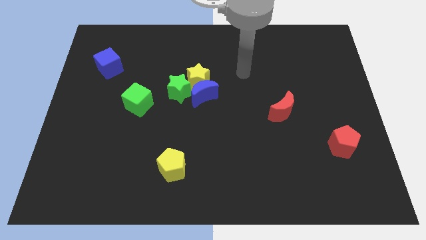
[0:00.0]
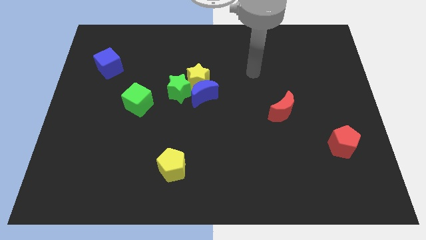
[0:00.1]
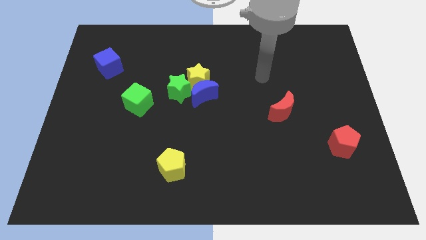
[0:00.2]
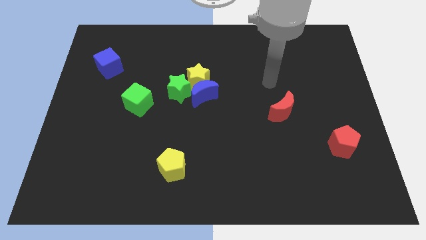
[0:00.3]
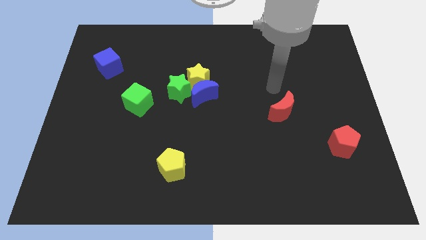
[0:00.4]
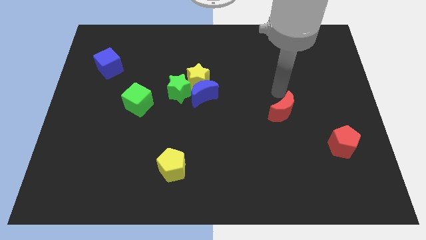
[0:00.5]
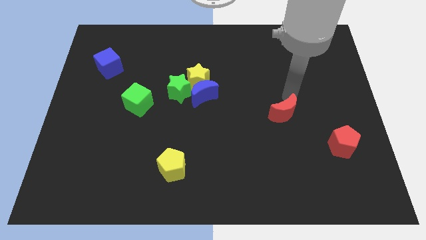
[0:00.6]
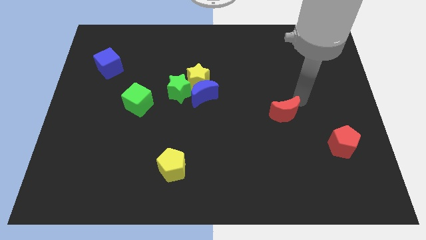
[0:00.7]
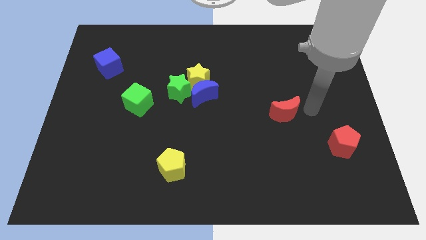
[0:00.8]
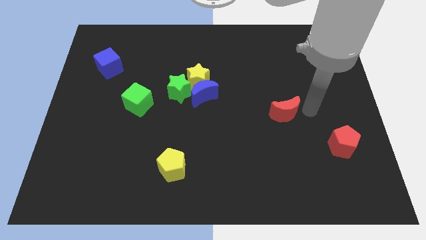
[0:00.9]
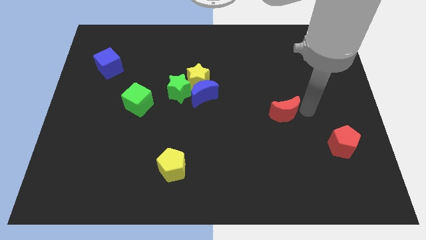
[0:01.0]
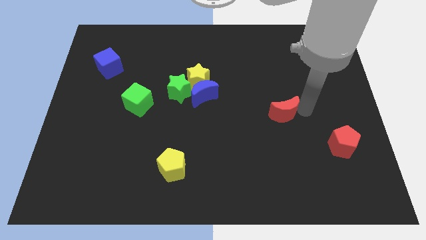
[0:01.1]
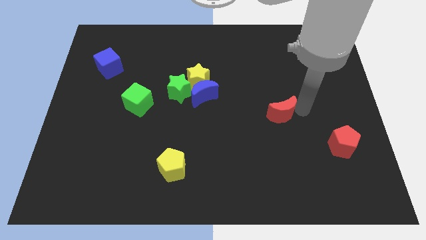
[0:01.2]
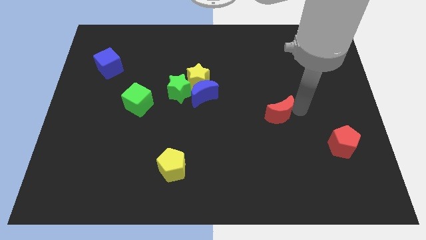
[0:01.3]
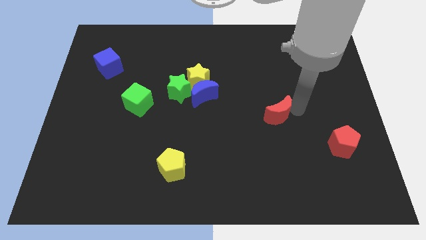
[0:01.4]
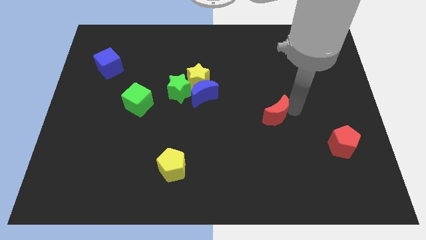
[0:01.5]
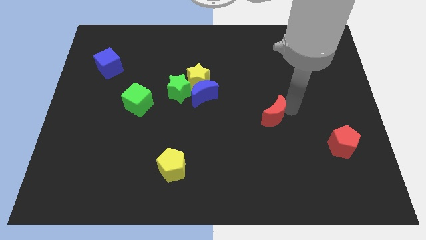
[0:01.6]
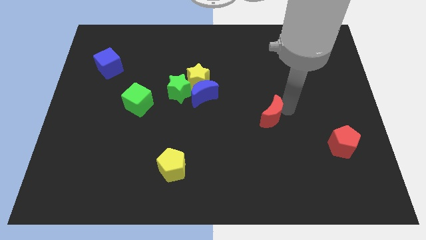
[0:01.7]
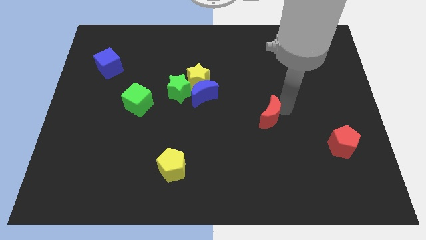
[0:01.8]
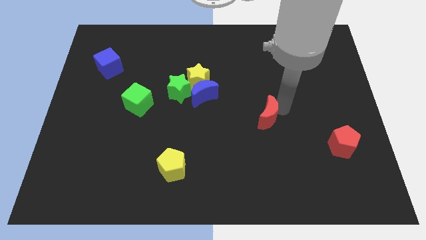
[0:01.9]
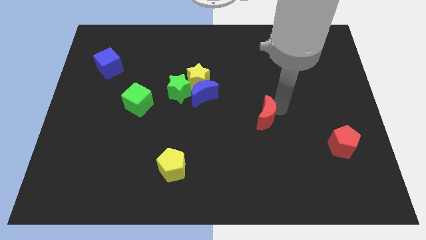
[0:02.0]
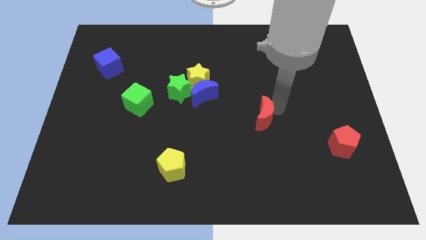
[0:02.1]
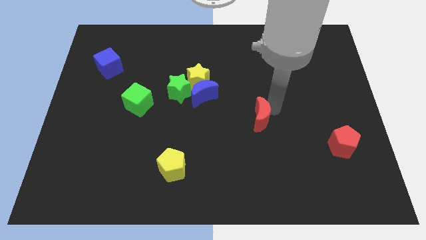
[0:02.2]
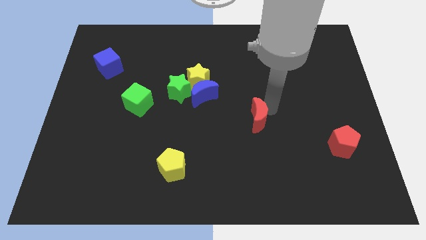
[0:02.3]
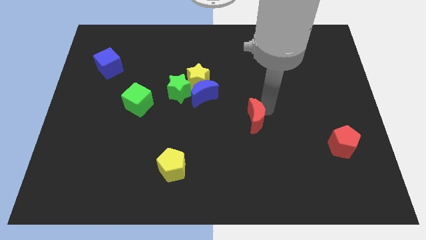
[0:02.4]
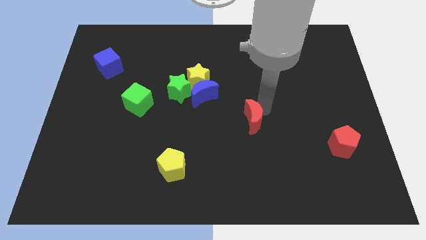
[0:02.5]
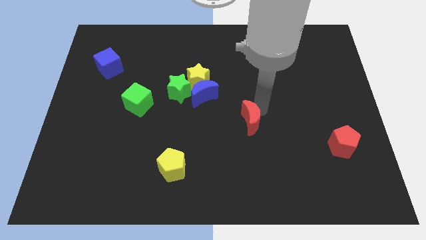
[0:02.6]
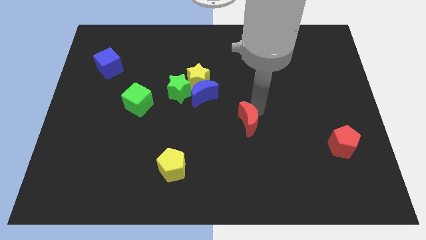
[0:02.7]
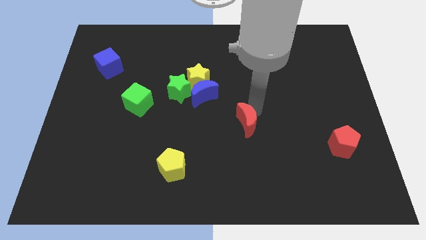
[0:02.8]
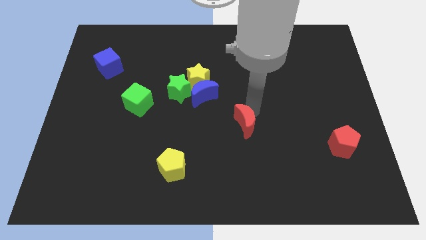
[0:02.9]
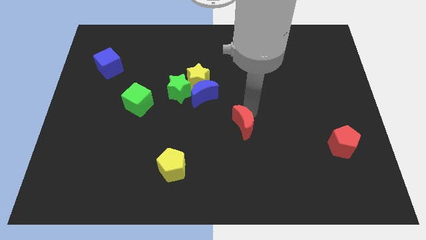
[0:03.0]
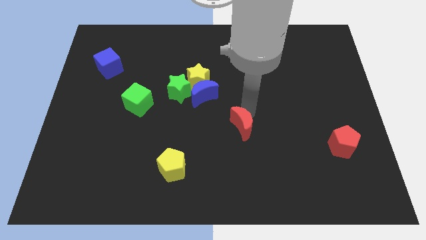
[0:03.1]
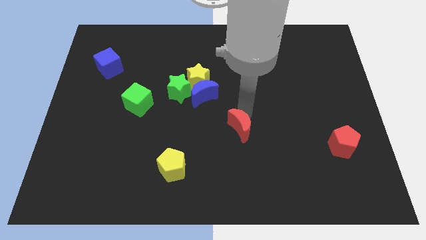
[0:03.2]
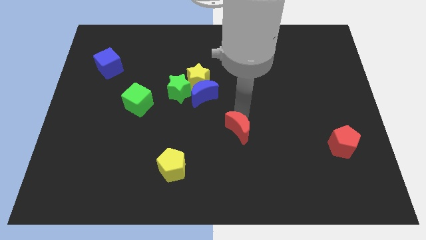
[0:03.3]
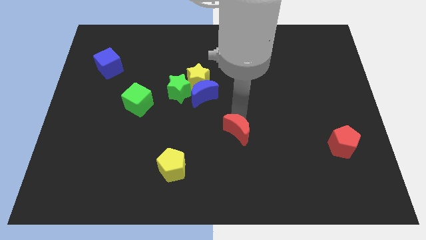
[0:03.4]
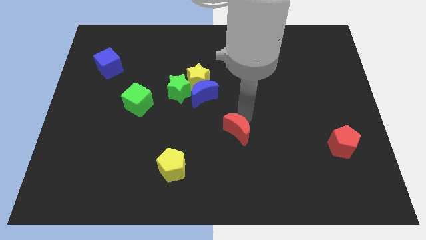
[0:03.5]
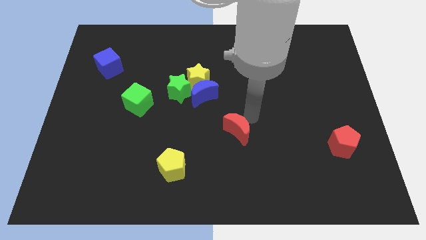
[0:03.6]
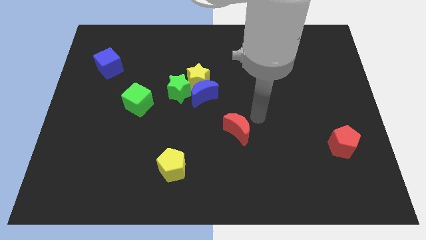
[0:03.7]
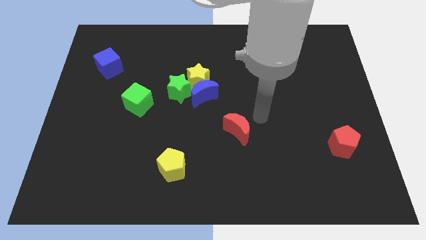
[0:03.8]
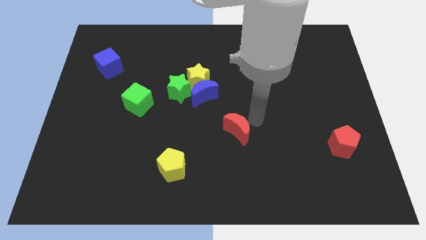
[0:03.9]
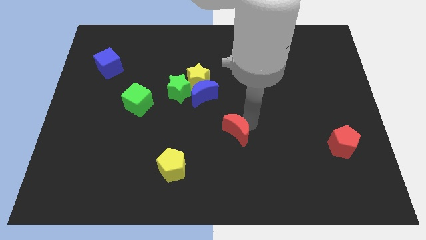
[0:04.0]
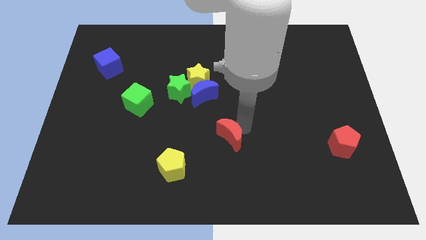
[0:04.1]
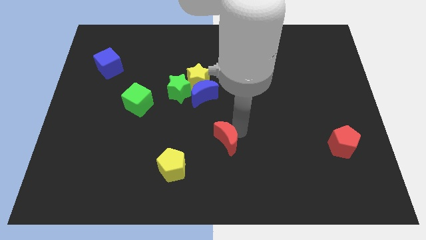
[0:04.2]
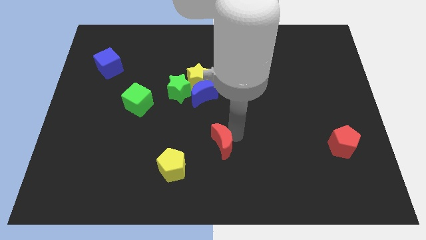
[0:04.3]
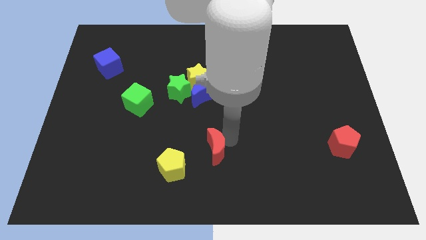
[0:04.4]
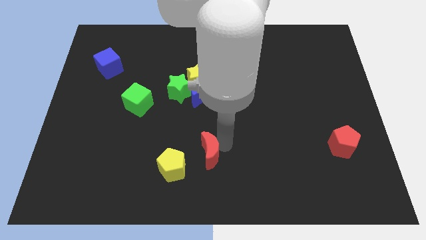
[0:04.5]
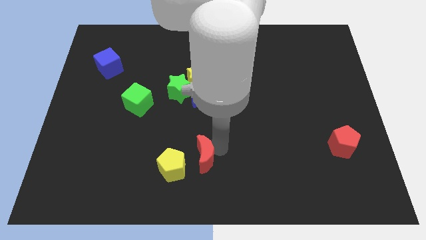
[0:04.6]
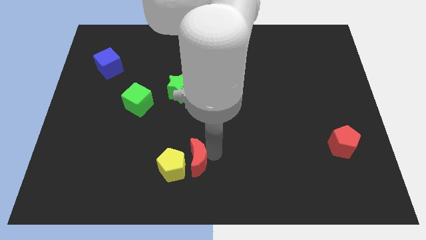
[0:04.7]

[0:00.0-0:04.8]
slide the red moon towards the yellow pentagon

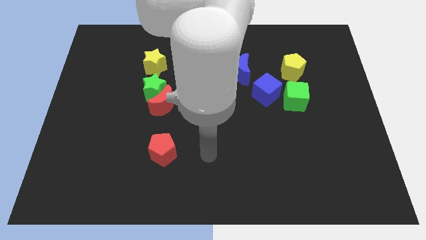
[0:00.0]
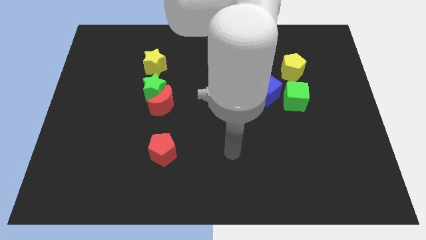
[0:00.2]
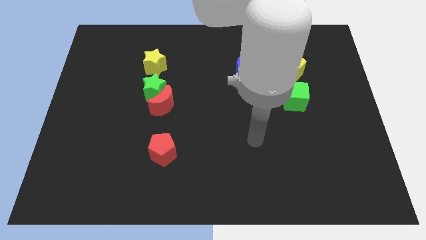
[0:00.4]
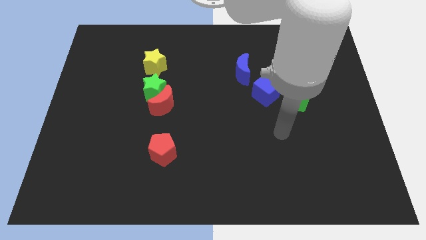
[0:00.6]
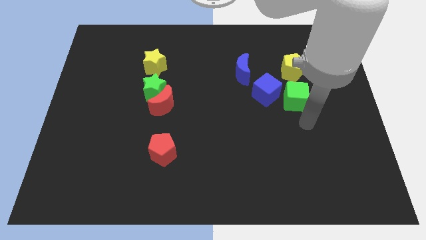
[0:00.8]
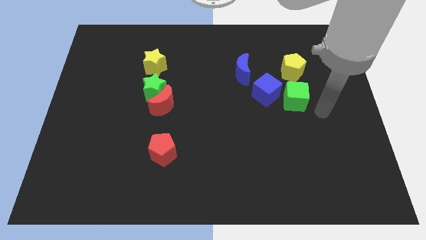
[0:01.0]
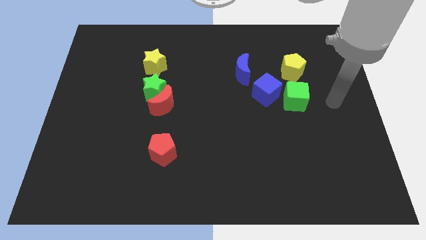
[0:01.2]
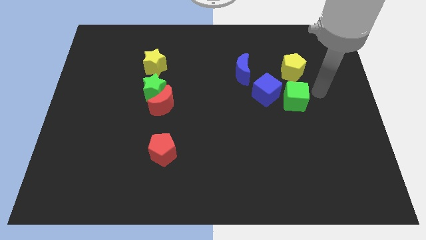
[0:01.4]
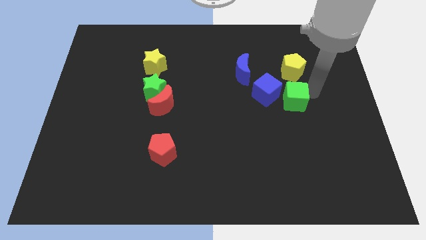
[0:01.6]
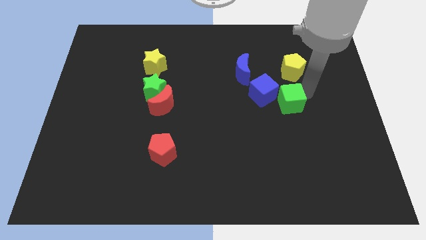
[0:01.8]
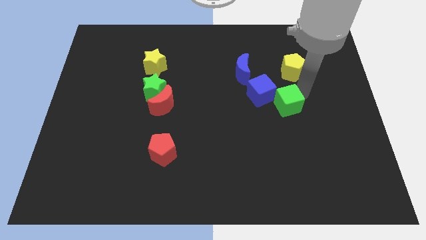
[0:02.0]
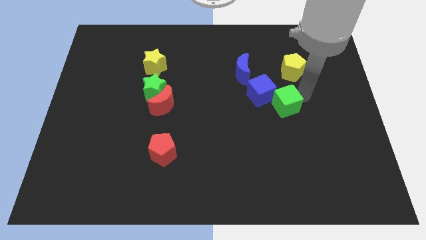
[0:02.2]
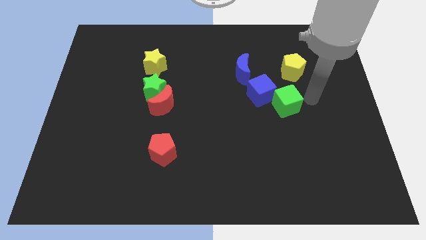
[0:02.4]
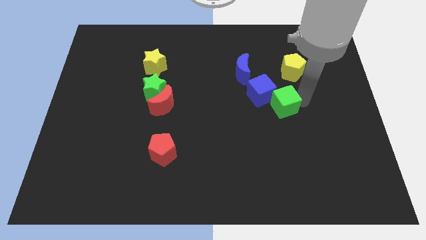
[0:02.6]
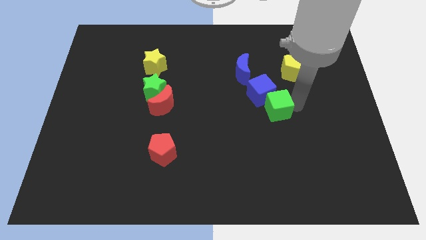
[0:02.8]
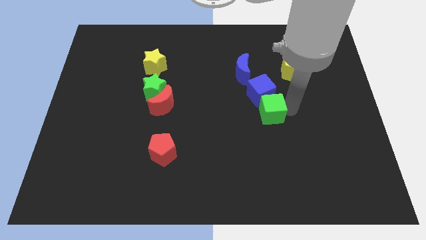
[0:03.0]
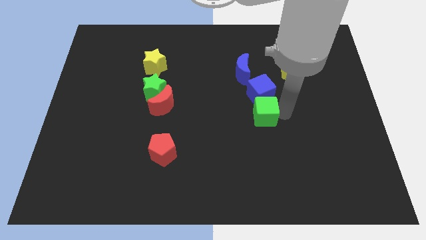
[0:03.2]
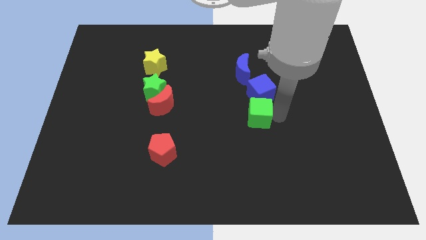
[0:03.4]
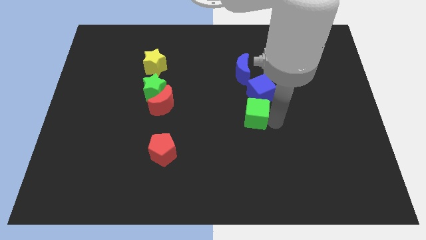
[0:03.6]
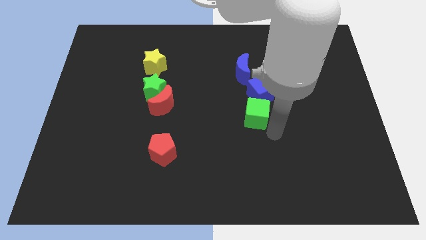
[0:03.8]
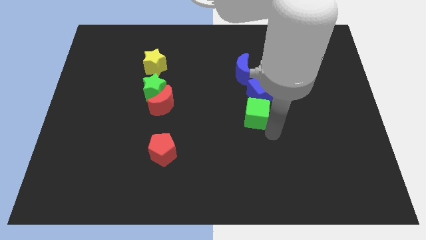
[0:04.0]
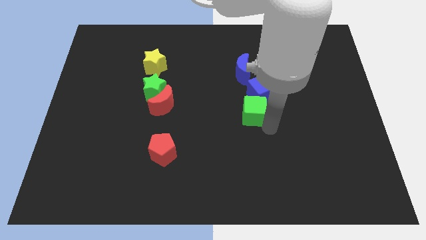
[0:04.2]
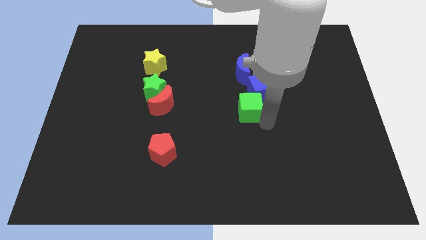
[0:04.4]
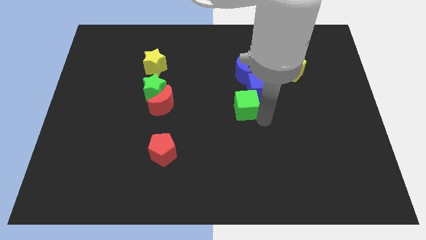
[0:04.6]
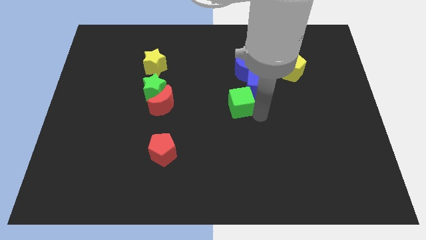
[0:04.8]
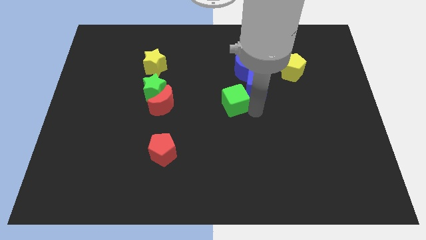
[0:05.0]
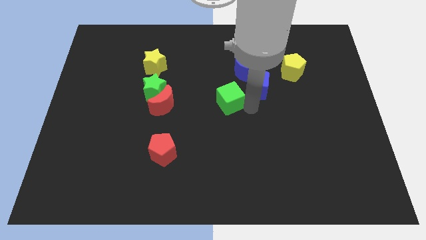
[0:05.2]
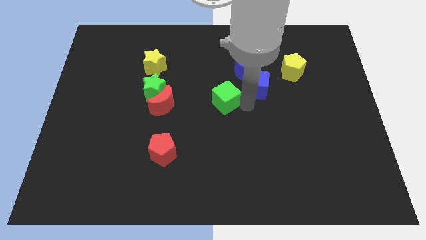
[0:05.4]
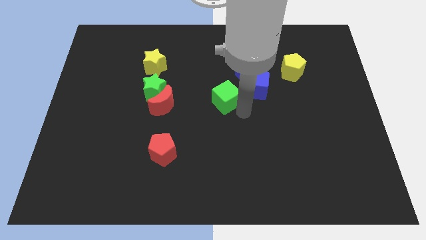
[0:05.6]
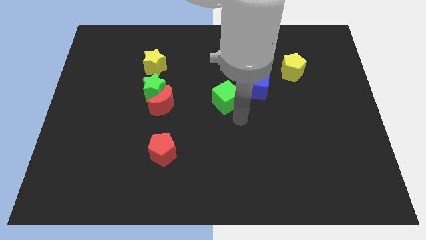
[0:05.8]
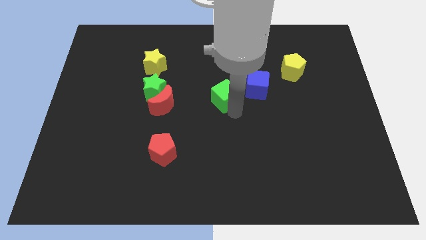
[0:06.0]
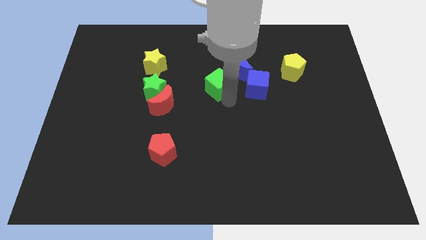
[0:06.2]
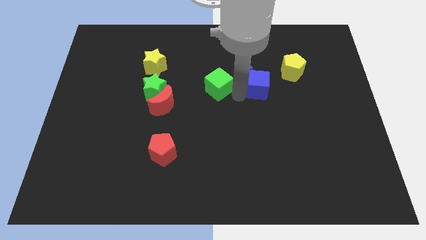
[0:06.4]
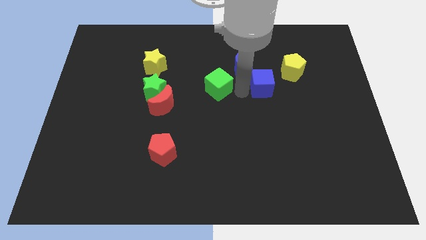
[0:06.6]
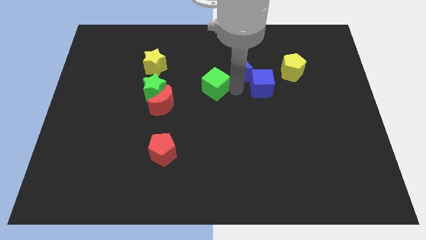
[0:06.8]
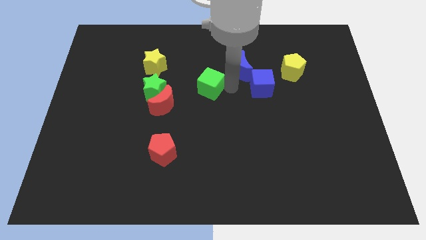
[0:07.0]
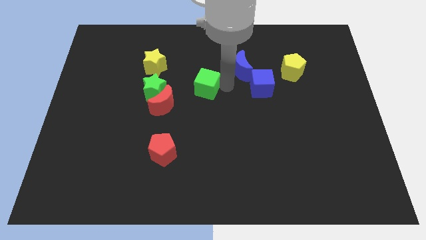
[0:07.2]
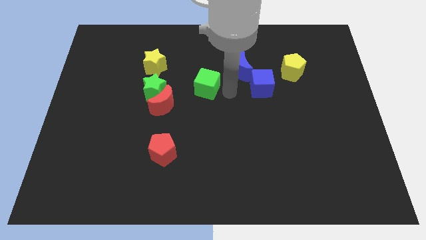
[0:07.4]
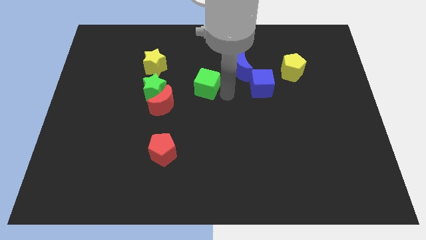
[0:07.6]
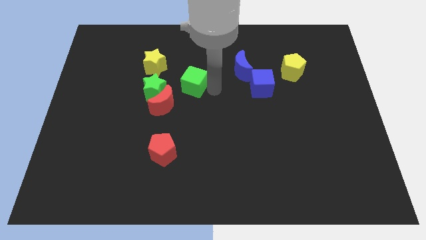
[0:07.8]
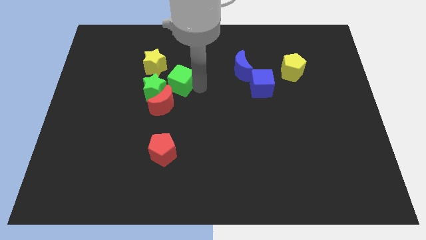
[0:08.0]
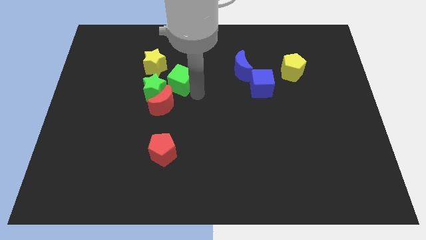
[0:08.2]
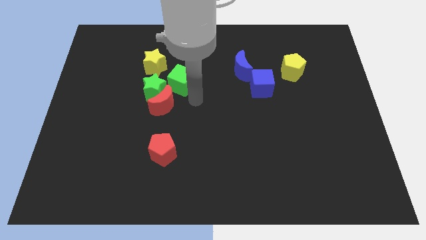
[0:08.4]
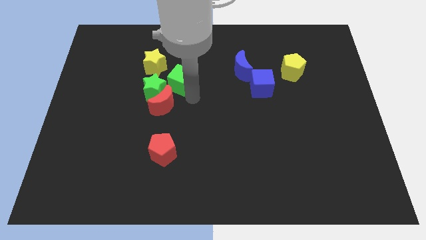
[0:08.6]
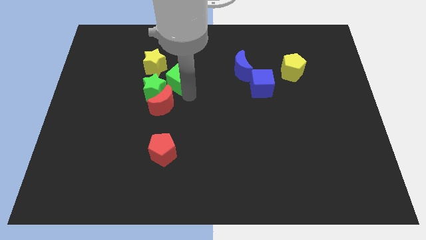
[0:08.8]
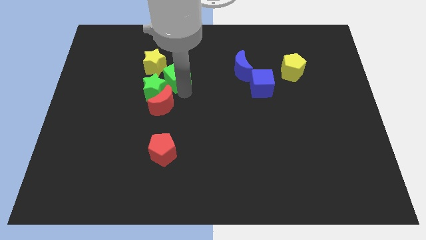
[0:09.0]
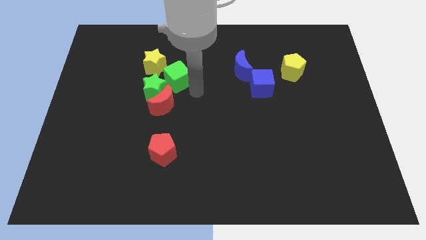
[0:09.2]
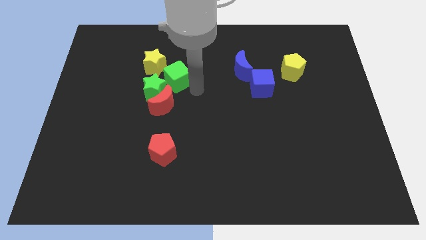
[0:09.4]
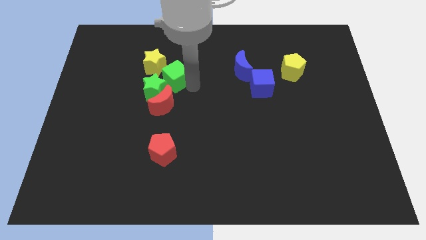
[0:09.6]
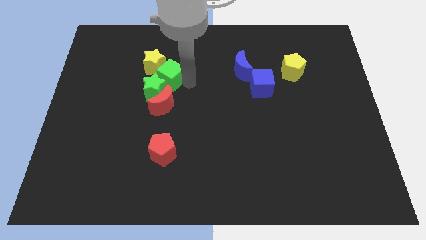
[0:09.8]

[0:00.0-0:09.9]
push the green cube next to the yellow star
